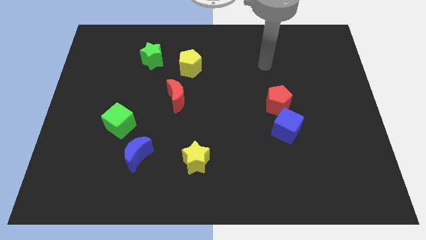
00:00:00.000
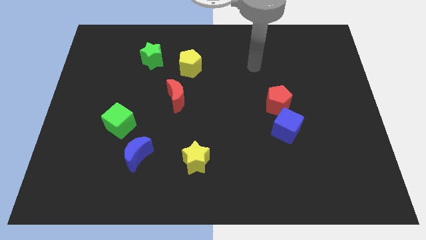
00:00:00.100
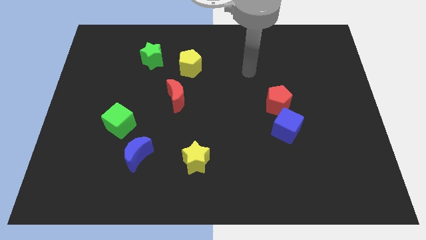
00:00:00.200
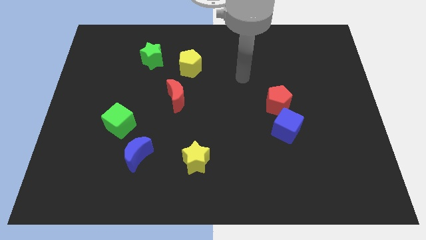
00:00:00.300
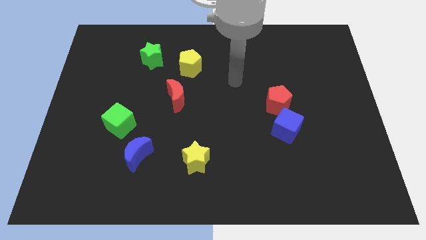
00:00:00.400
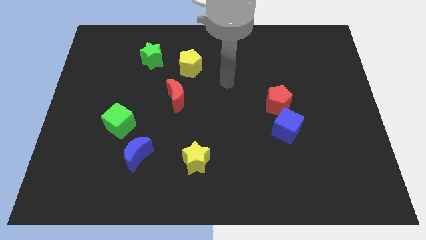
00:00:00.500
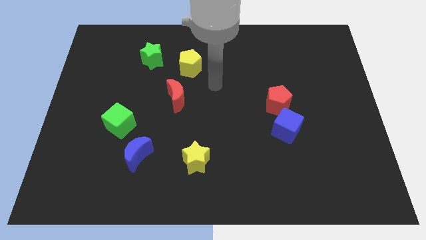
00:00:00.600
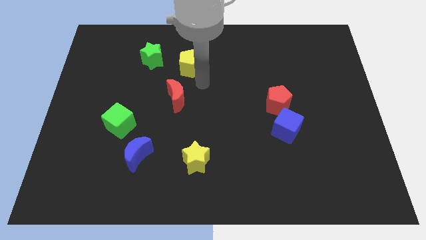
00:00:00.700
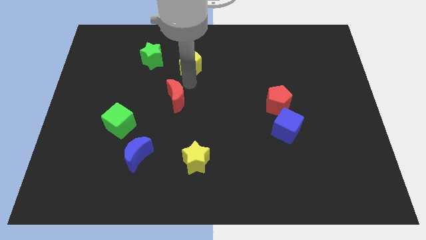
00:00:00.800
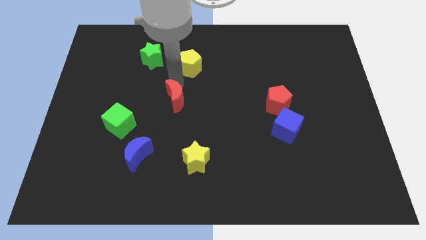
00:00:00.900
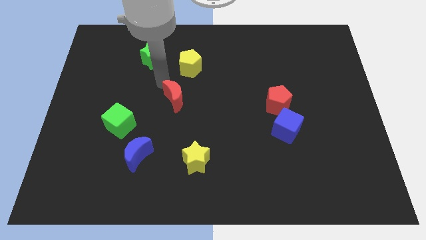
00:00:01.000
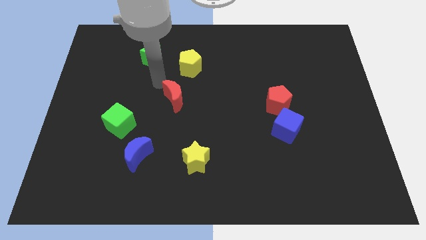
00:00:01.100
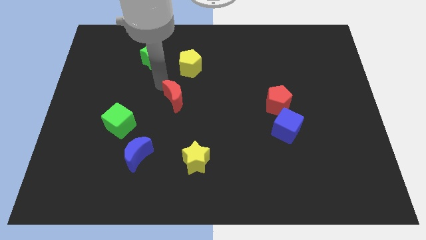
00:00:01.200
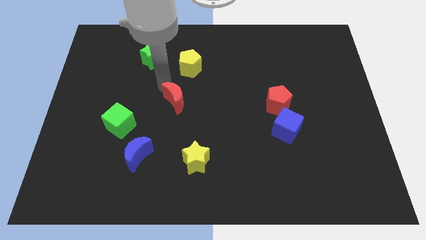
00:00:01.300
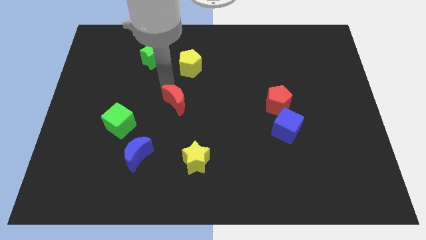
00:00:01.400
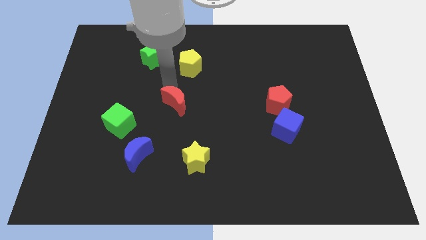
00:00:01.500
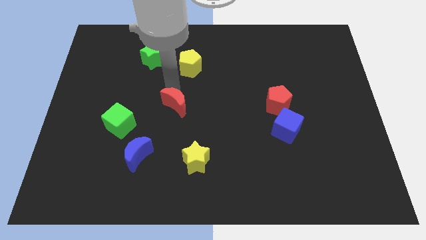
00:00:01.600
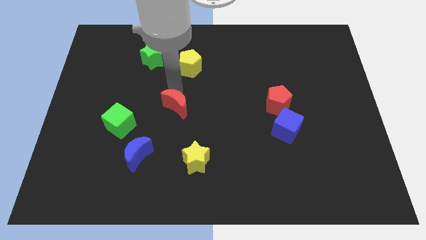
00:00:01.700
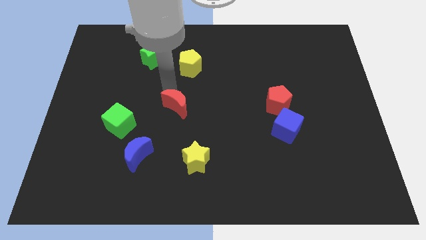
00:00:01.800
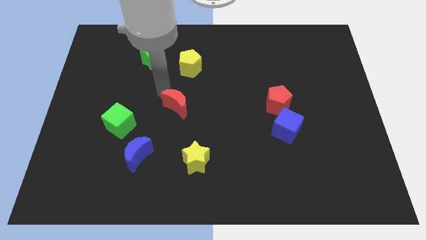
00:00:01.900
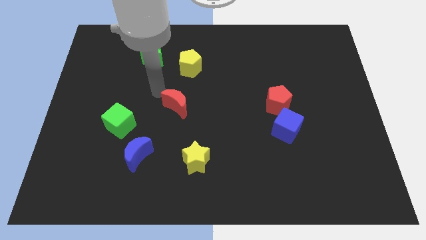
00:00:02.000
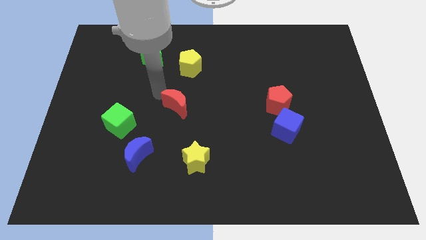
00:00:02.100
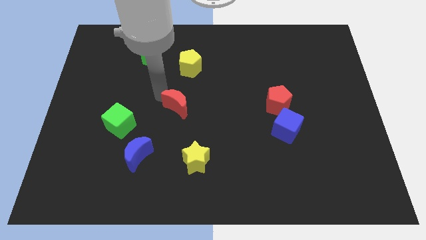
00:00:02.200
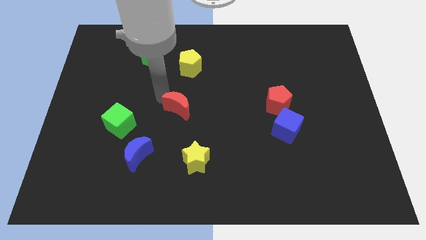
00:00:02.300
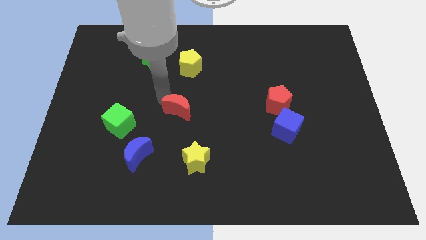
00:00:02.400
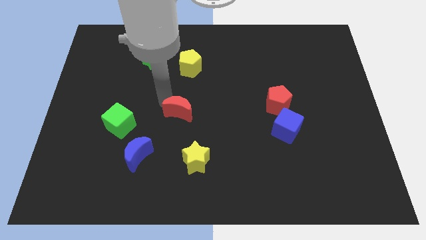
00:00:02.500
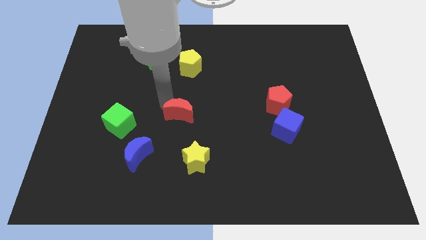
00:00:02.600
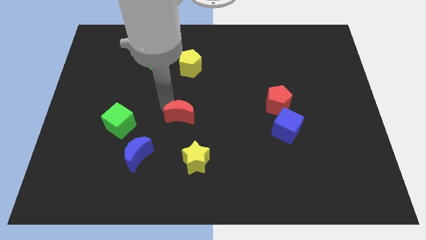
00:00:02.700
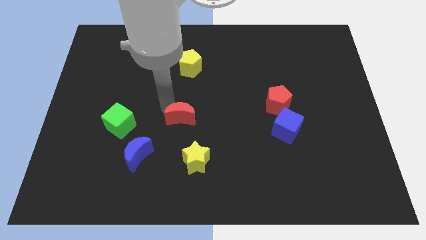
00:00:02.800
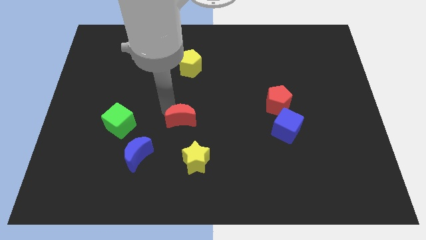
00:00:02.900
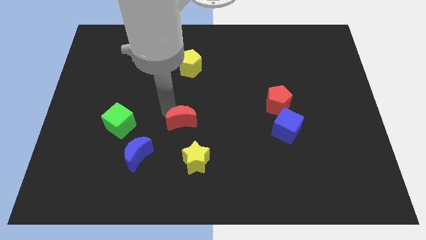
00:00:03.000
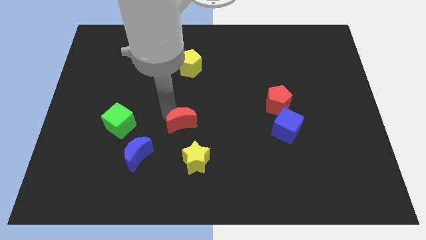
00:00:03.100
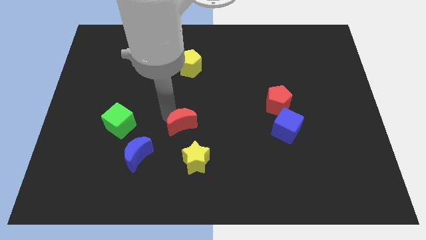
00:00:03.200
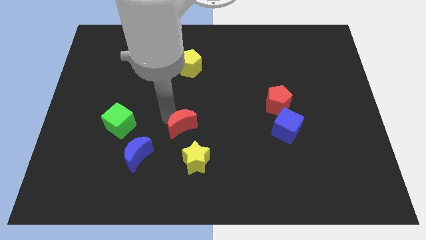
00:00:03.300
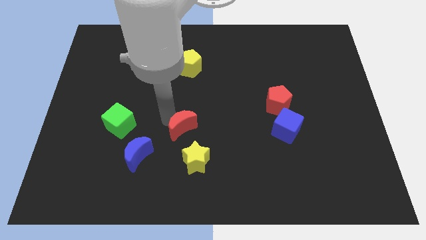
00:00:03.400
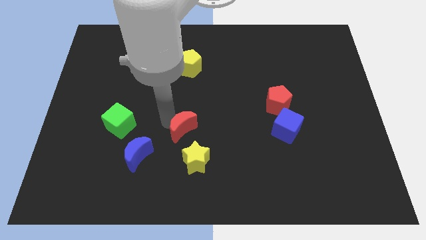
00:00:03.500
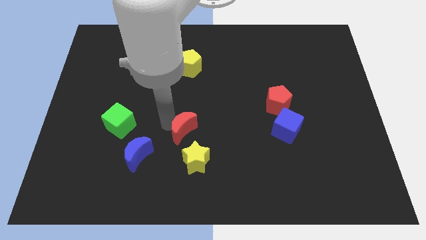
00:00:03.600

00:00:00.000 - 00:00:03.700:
move the red moon down and right diagonally a little

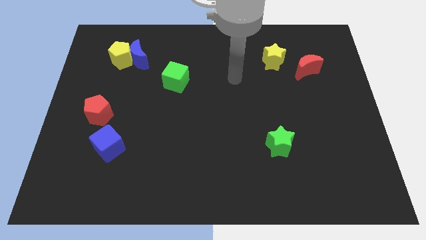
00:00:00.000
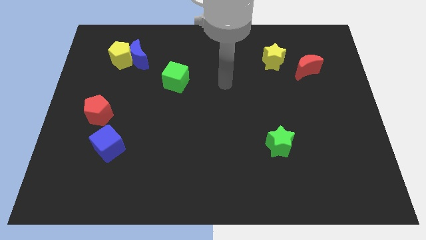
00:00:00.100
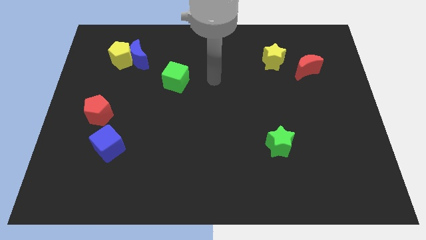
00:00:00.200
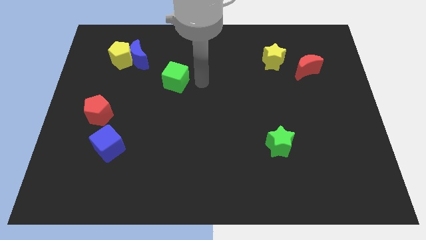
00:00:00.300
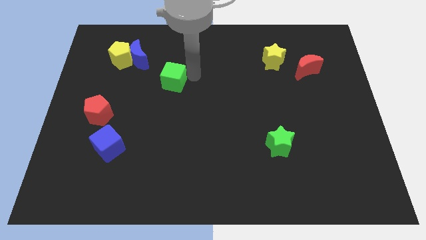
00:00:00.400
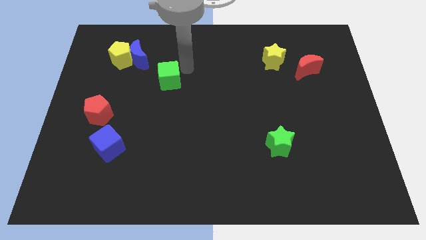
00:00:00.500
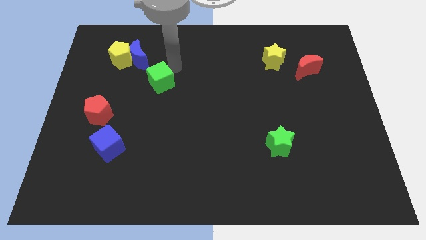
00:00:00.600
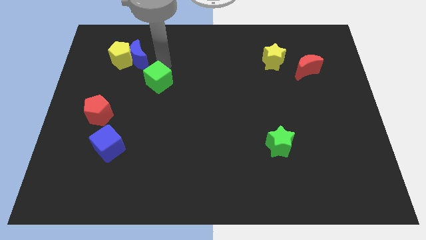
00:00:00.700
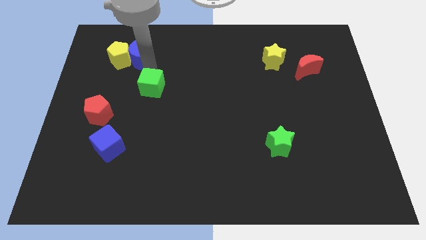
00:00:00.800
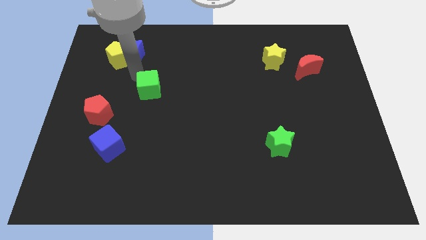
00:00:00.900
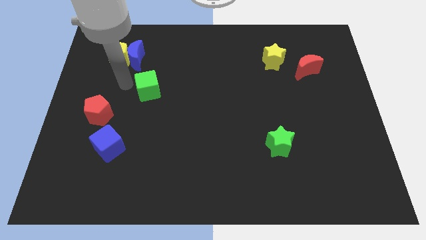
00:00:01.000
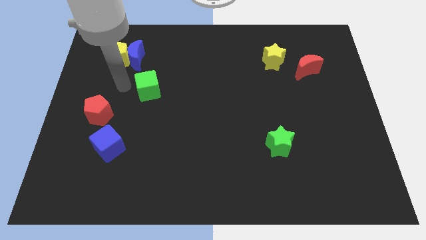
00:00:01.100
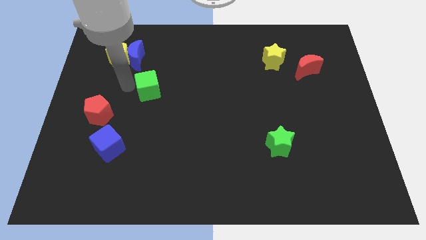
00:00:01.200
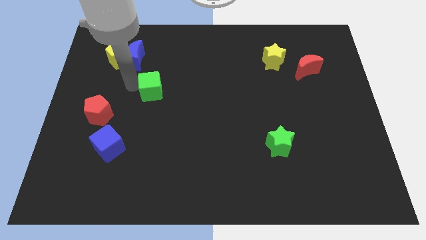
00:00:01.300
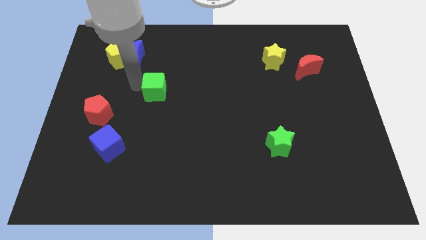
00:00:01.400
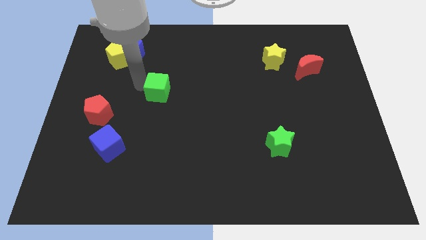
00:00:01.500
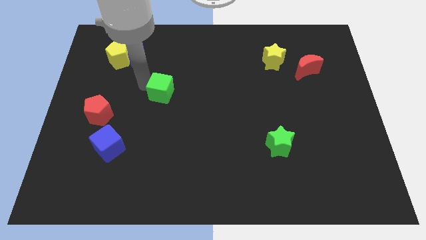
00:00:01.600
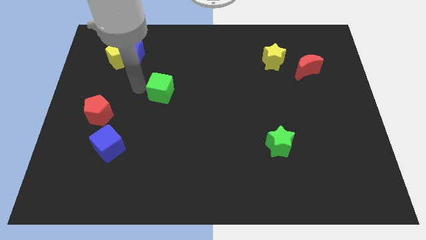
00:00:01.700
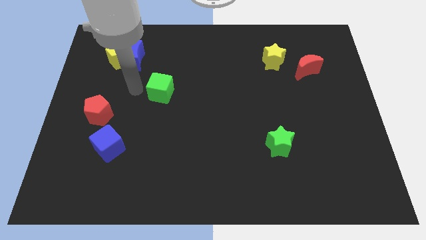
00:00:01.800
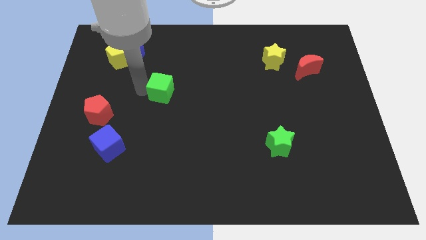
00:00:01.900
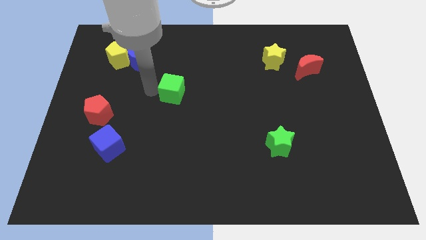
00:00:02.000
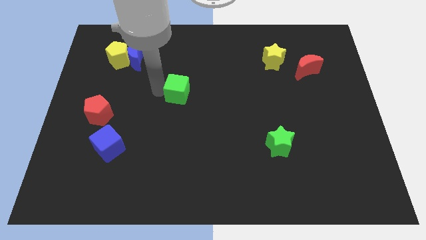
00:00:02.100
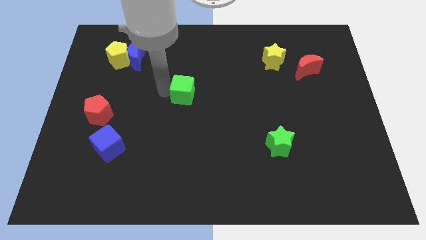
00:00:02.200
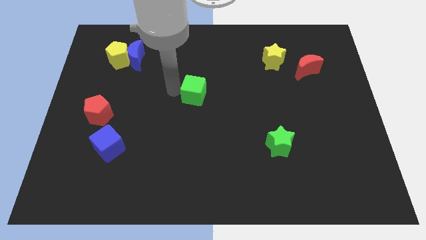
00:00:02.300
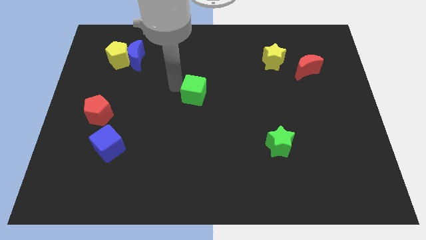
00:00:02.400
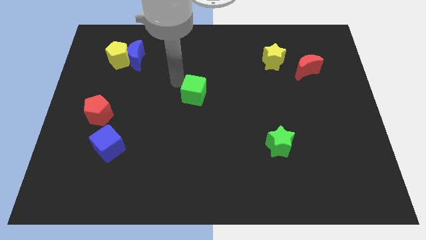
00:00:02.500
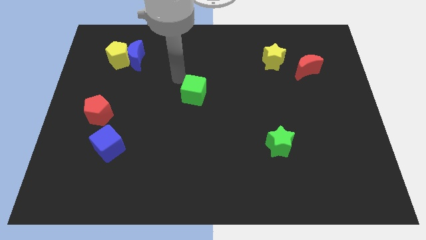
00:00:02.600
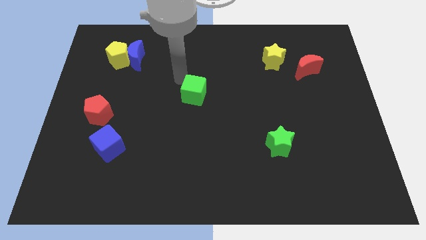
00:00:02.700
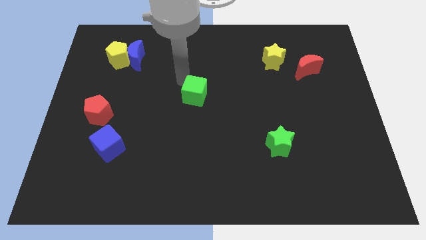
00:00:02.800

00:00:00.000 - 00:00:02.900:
move the green cube a little bit diagonally down and to the right

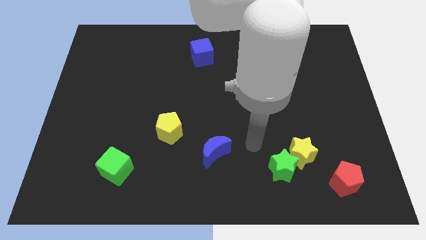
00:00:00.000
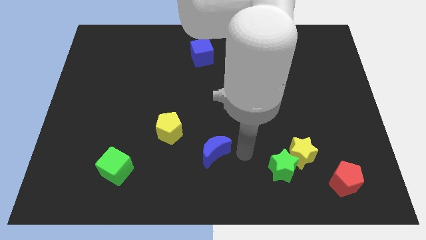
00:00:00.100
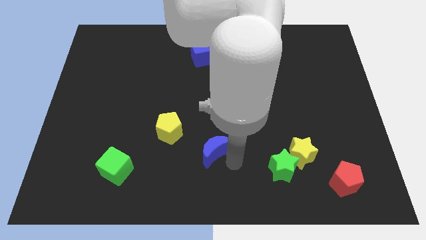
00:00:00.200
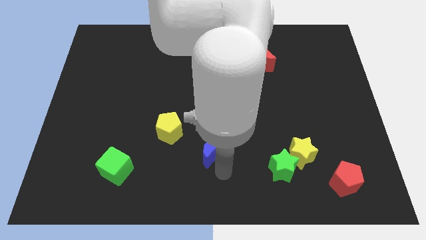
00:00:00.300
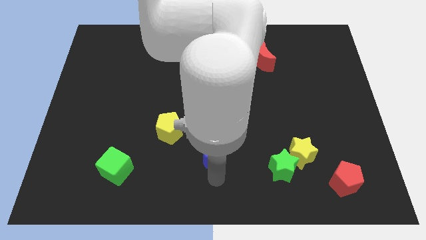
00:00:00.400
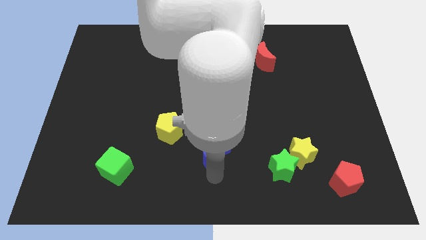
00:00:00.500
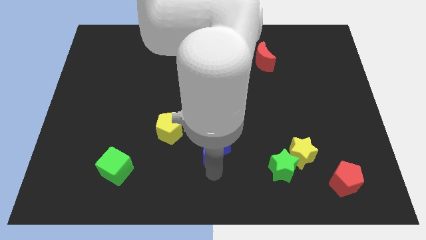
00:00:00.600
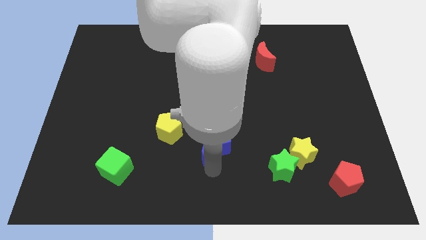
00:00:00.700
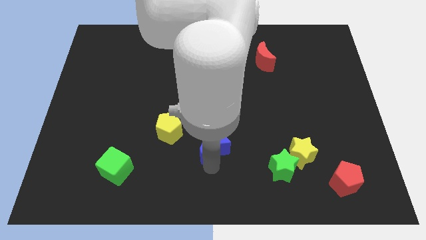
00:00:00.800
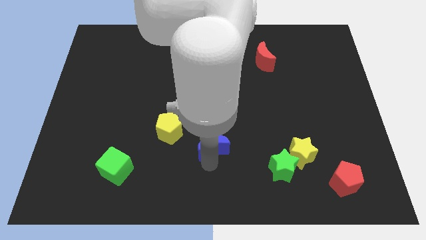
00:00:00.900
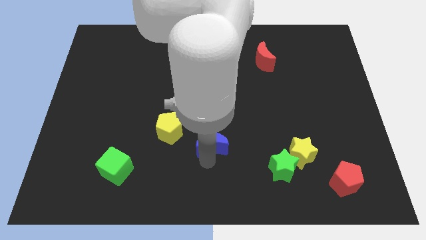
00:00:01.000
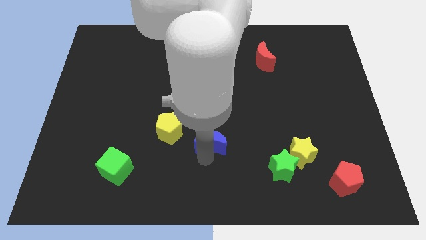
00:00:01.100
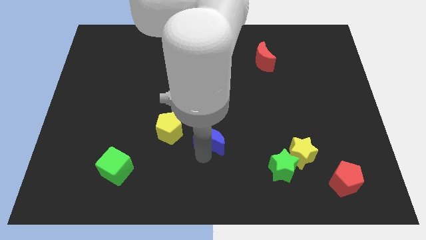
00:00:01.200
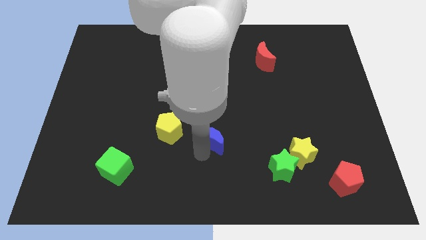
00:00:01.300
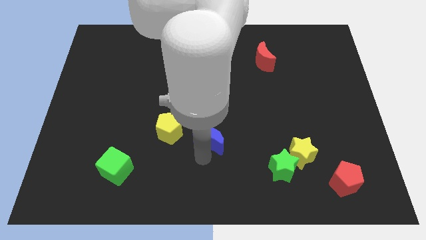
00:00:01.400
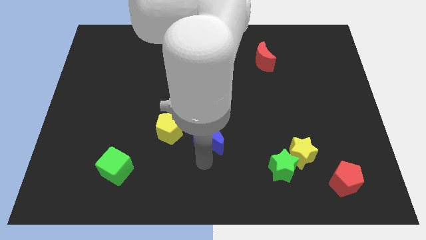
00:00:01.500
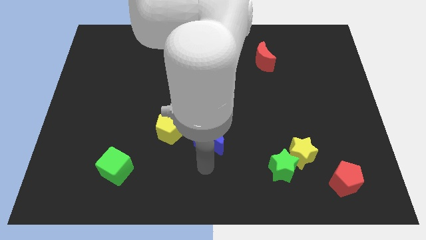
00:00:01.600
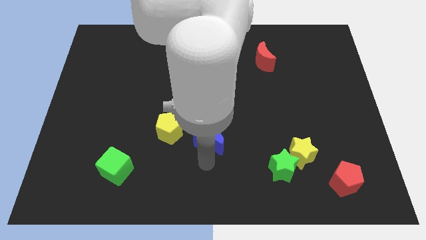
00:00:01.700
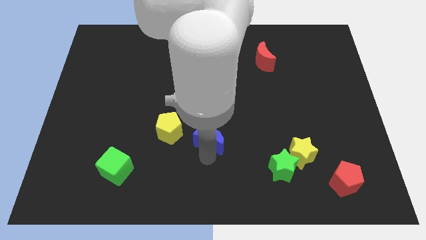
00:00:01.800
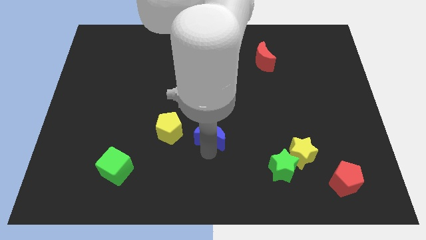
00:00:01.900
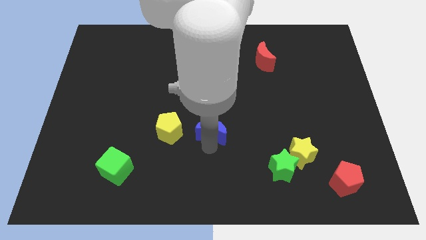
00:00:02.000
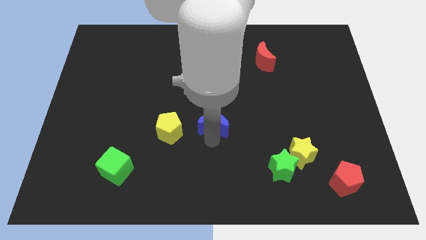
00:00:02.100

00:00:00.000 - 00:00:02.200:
slide the blue moon a little up
